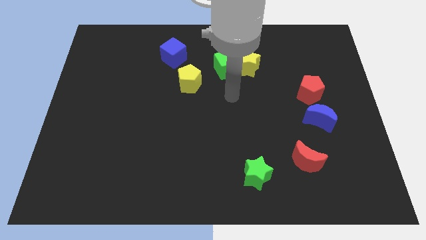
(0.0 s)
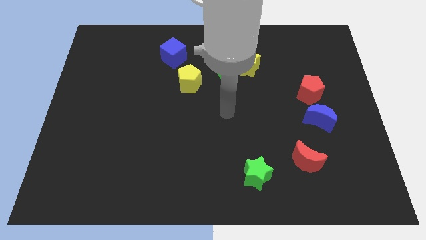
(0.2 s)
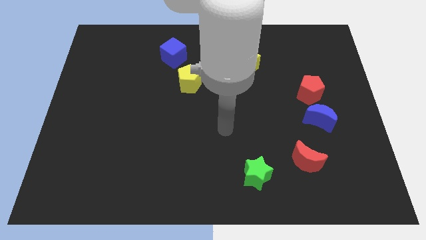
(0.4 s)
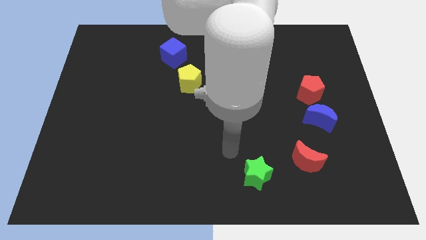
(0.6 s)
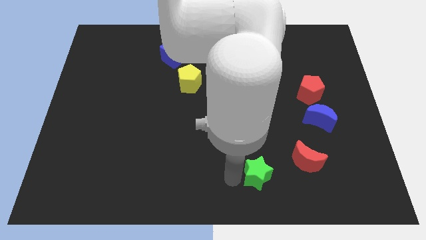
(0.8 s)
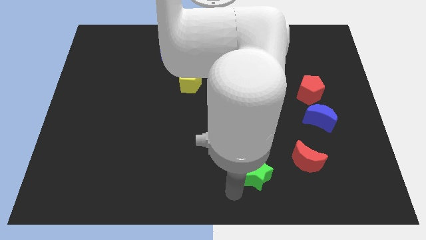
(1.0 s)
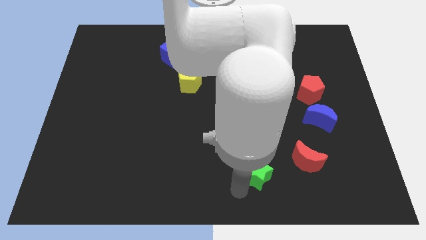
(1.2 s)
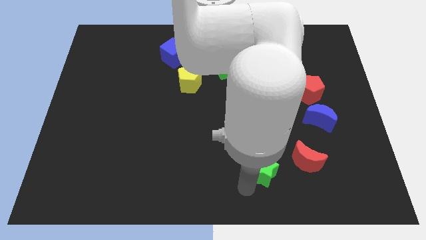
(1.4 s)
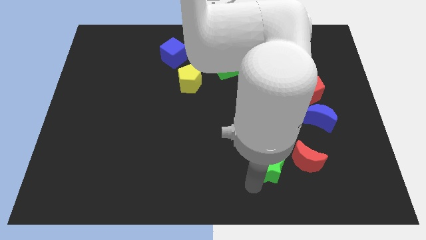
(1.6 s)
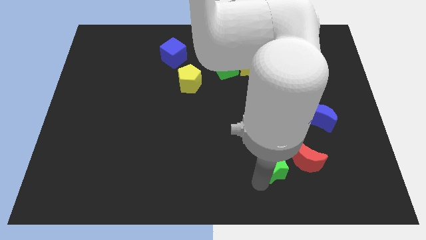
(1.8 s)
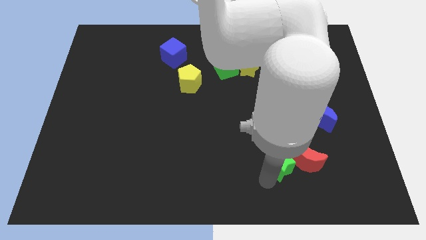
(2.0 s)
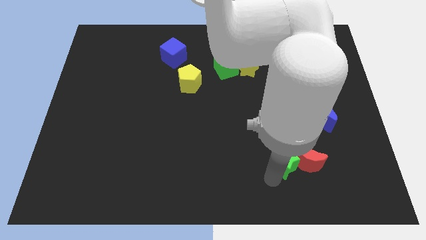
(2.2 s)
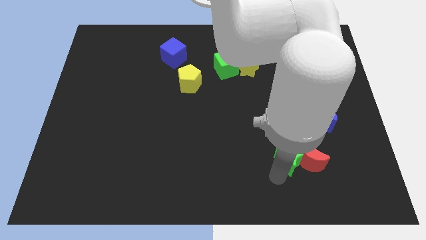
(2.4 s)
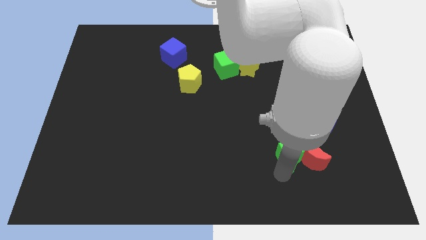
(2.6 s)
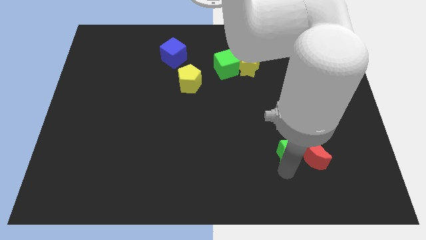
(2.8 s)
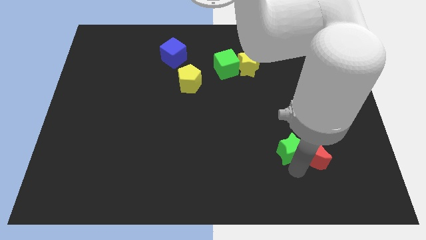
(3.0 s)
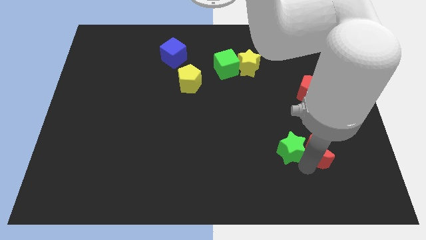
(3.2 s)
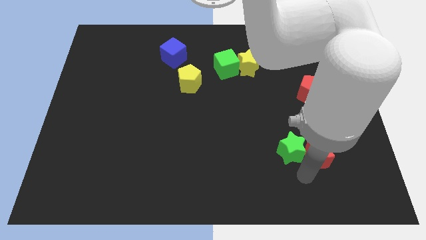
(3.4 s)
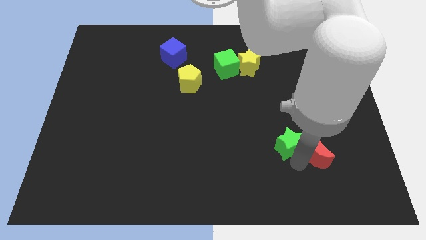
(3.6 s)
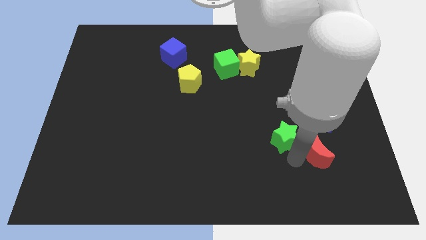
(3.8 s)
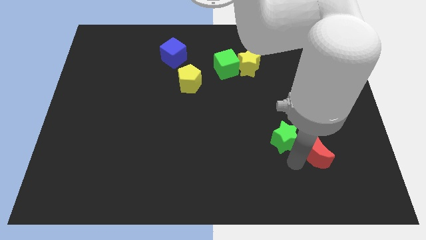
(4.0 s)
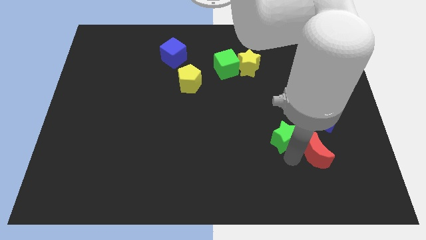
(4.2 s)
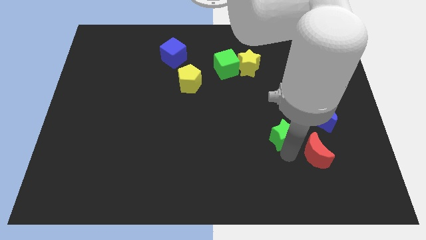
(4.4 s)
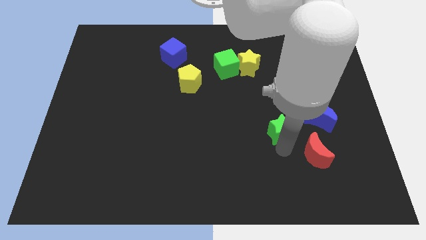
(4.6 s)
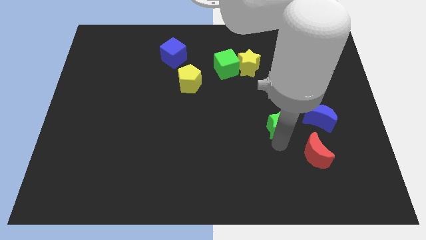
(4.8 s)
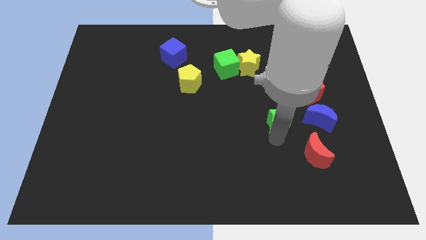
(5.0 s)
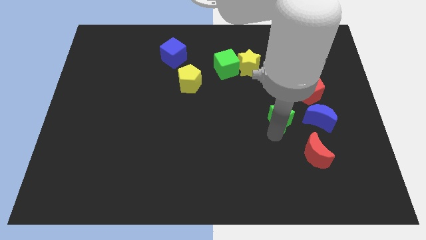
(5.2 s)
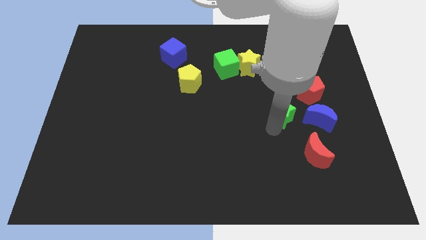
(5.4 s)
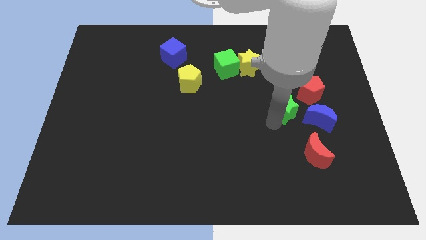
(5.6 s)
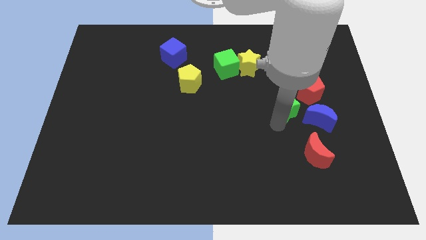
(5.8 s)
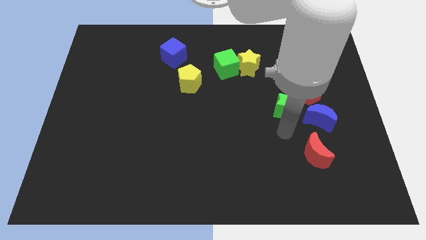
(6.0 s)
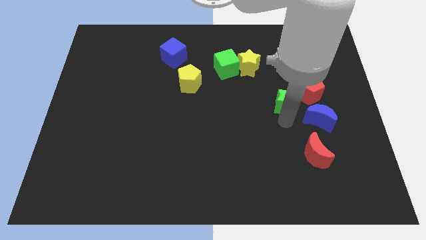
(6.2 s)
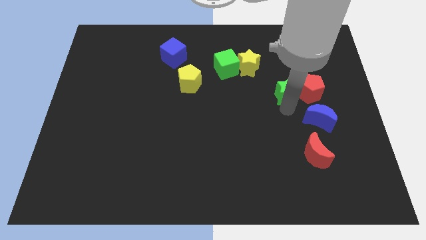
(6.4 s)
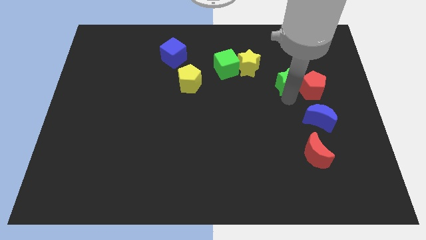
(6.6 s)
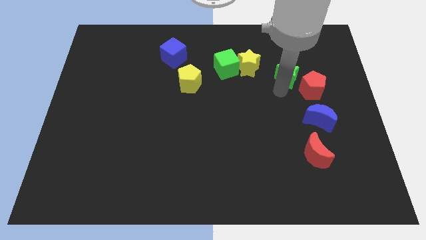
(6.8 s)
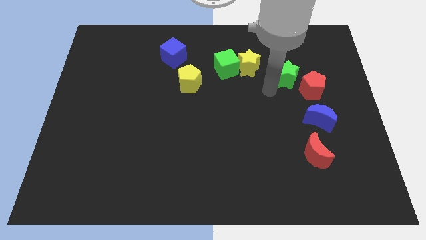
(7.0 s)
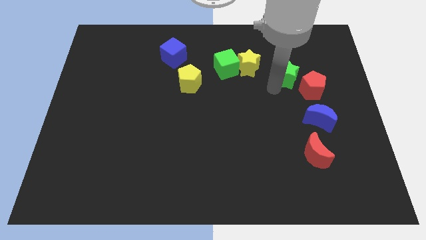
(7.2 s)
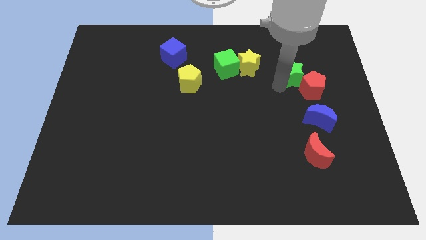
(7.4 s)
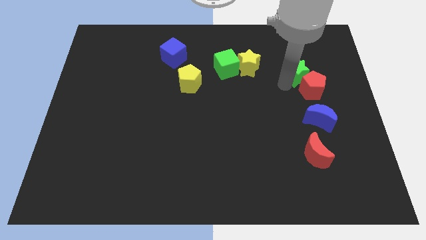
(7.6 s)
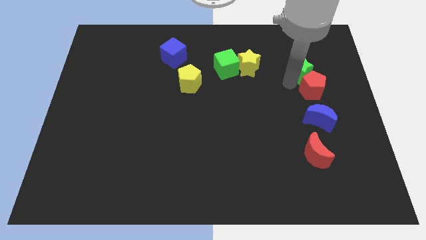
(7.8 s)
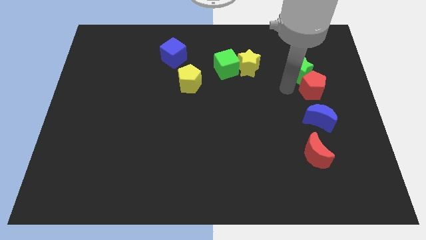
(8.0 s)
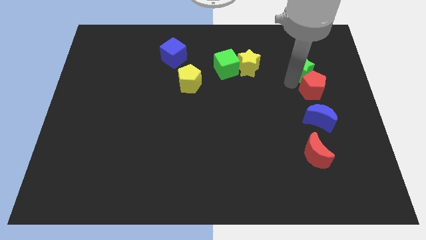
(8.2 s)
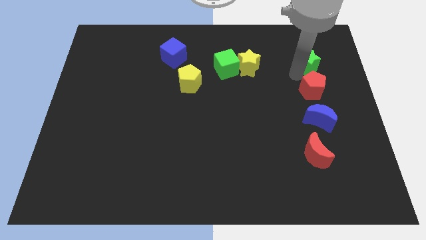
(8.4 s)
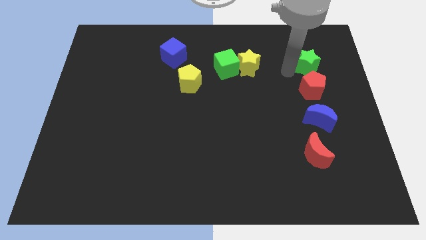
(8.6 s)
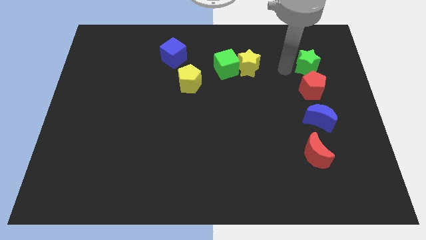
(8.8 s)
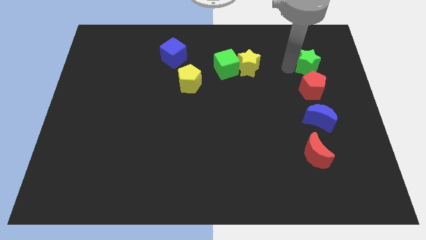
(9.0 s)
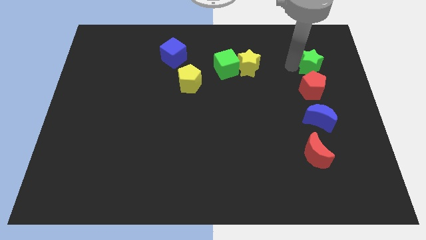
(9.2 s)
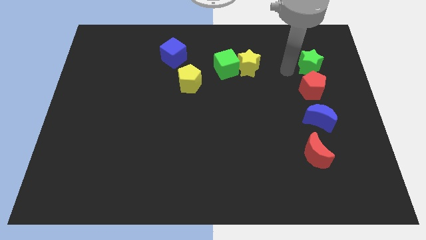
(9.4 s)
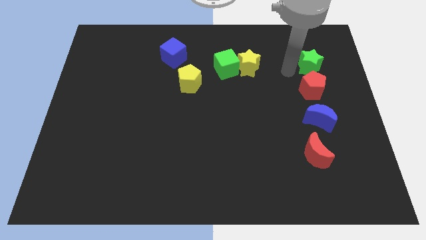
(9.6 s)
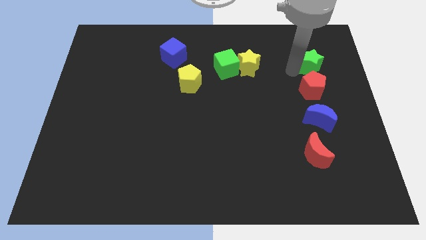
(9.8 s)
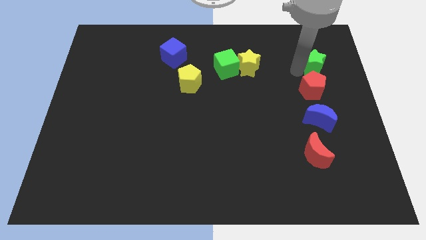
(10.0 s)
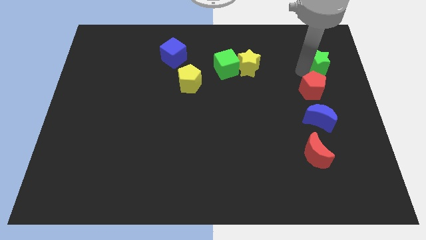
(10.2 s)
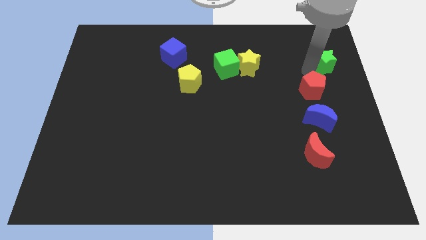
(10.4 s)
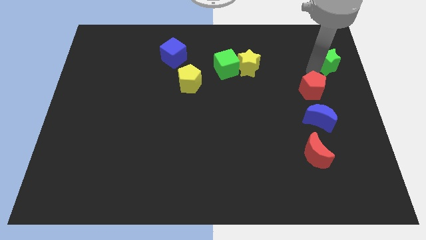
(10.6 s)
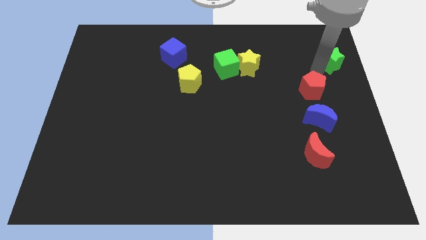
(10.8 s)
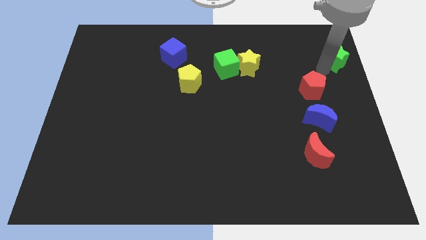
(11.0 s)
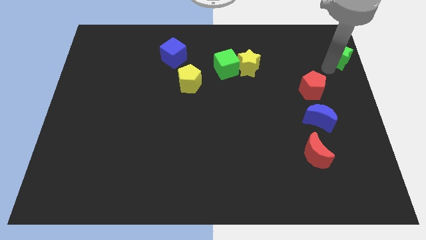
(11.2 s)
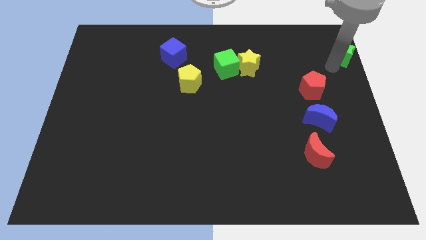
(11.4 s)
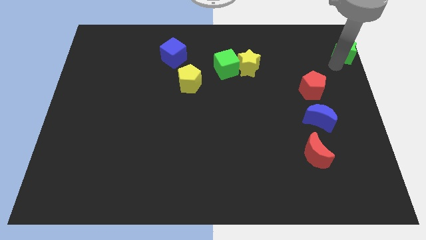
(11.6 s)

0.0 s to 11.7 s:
move the green star to the top right
